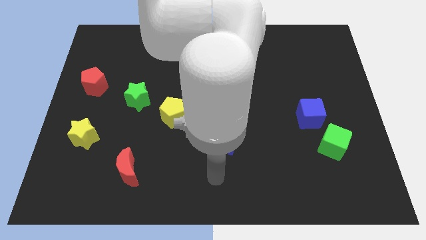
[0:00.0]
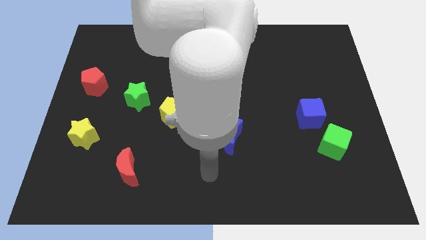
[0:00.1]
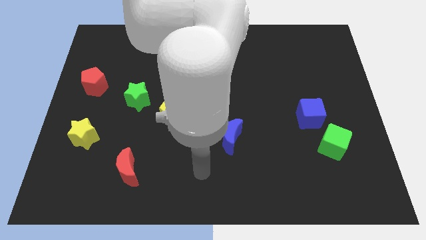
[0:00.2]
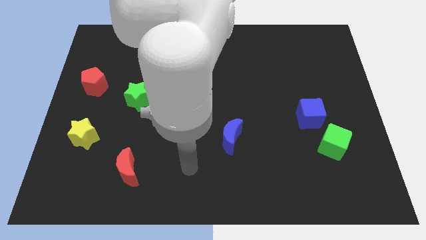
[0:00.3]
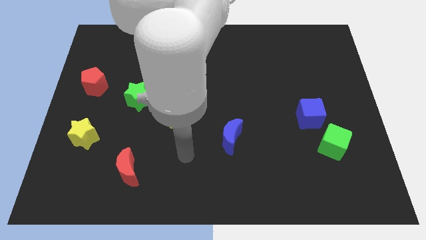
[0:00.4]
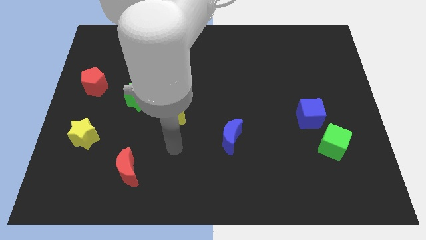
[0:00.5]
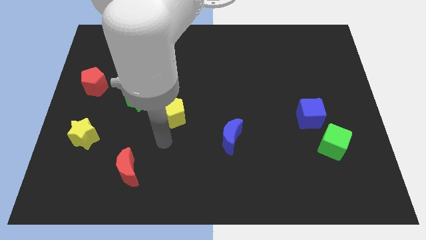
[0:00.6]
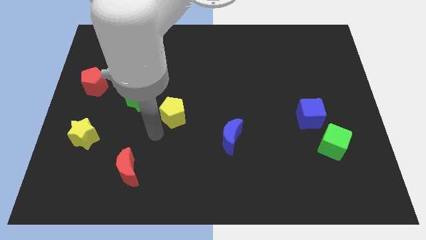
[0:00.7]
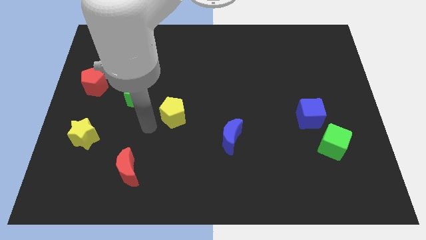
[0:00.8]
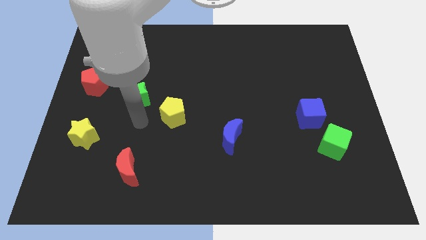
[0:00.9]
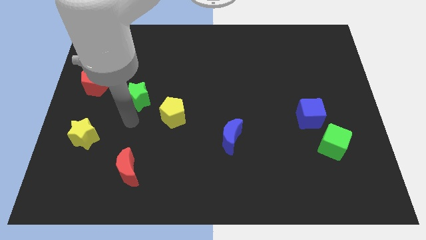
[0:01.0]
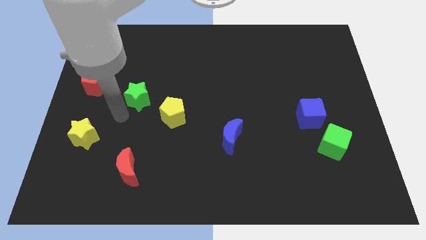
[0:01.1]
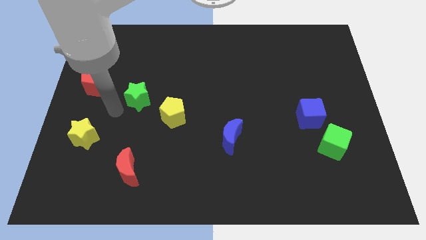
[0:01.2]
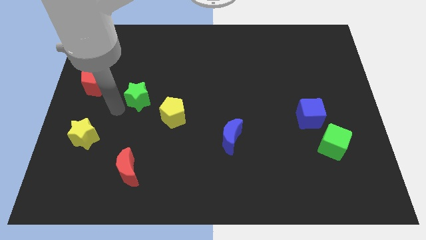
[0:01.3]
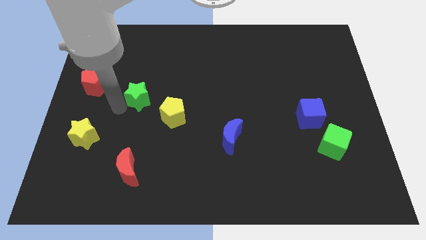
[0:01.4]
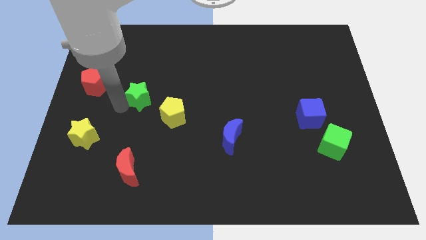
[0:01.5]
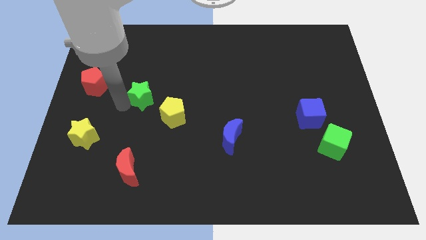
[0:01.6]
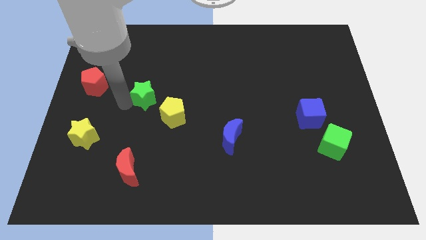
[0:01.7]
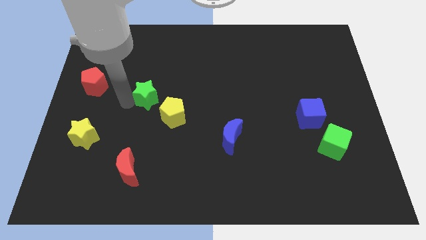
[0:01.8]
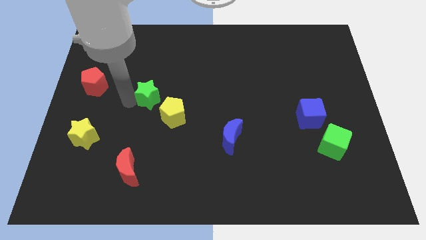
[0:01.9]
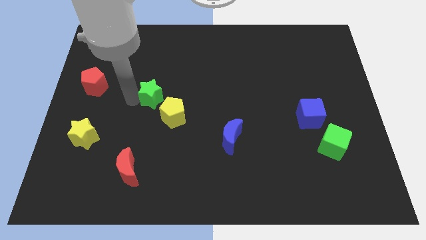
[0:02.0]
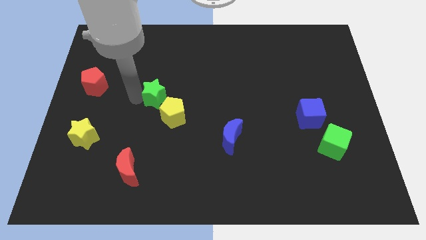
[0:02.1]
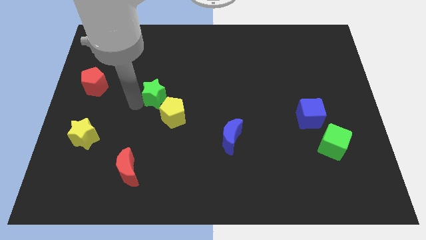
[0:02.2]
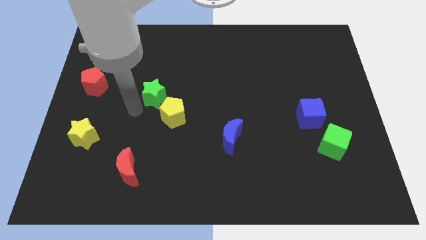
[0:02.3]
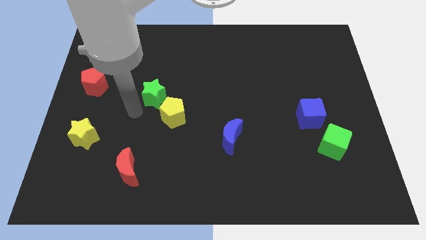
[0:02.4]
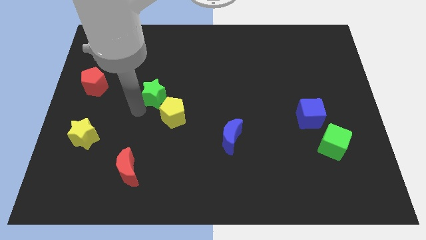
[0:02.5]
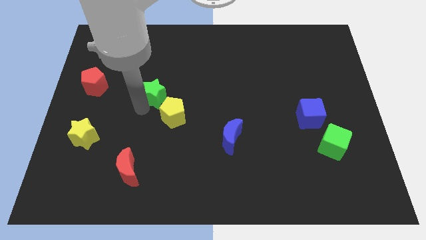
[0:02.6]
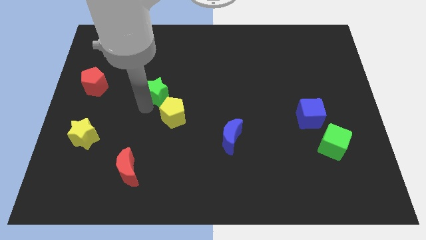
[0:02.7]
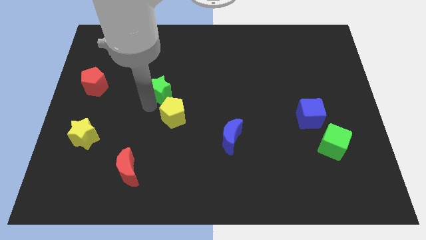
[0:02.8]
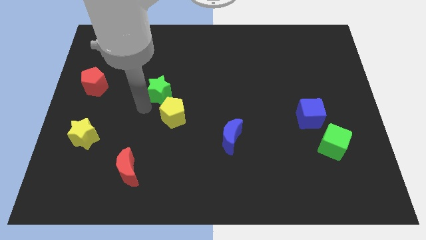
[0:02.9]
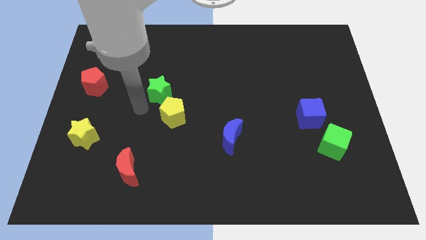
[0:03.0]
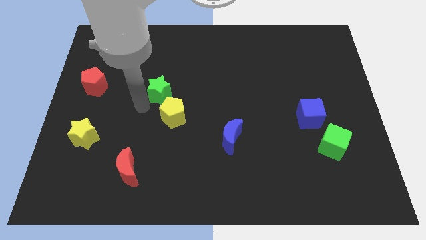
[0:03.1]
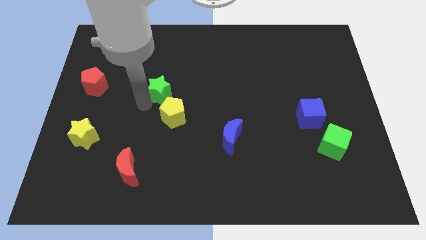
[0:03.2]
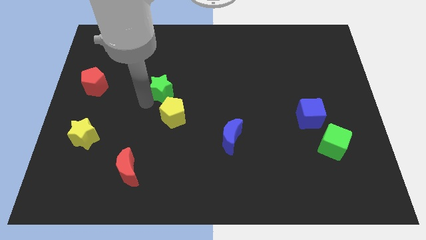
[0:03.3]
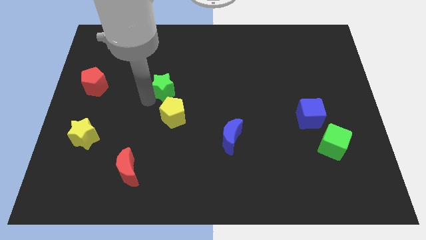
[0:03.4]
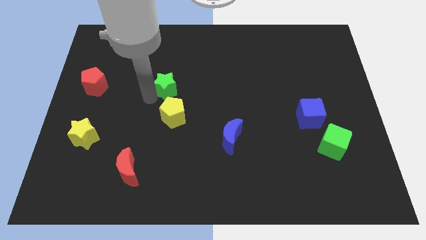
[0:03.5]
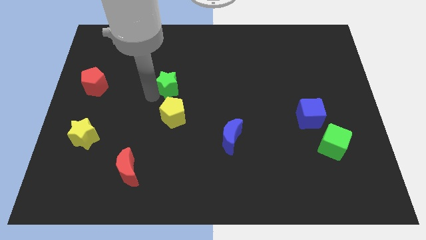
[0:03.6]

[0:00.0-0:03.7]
push the green star somewhat diagonally upwards and right

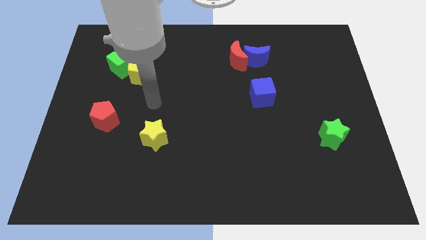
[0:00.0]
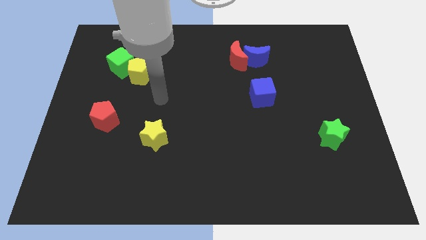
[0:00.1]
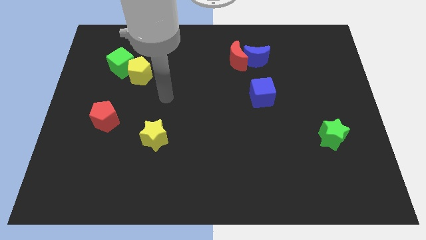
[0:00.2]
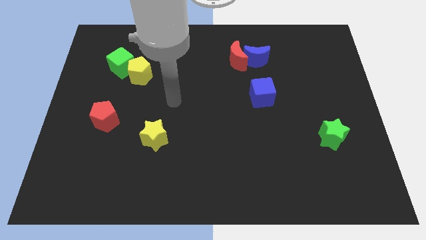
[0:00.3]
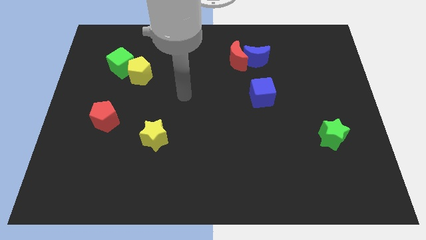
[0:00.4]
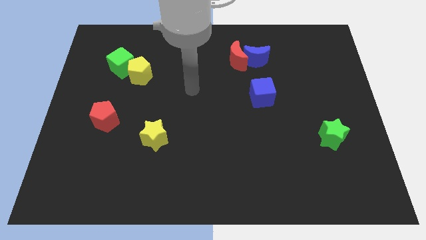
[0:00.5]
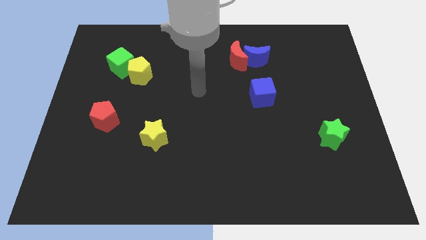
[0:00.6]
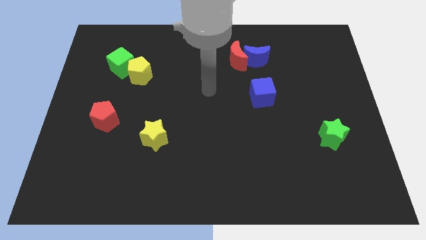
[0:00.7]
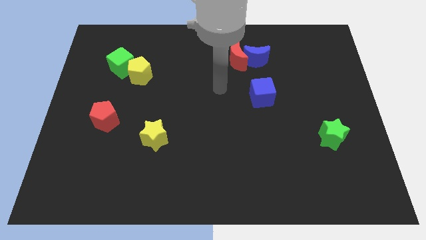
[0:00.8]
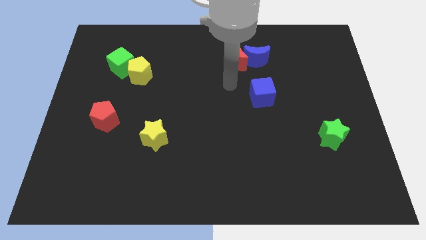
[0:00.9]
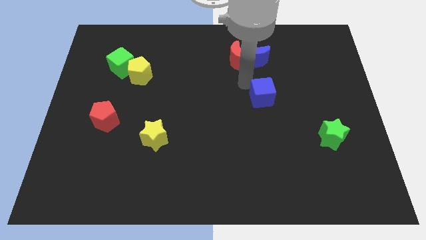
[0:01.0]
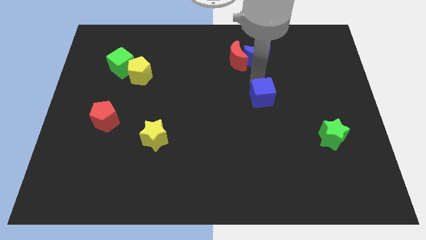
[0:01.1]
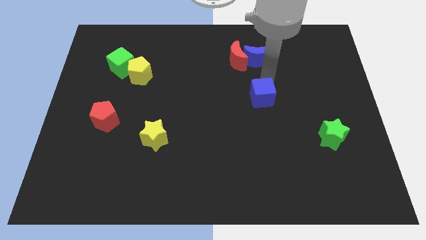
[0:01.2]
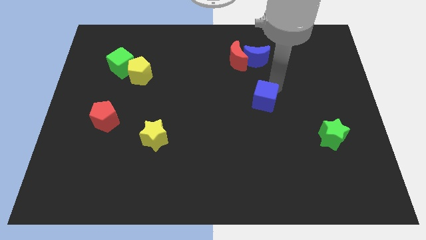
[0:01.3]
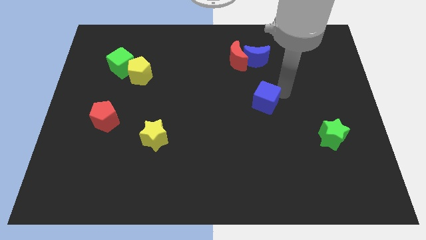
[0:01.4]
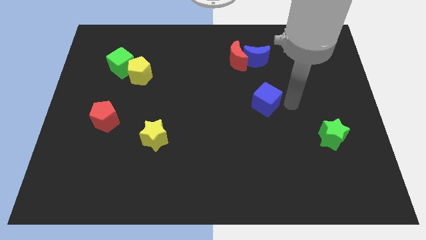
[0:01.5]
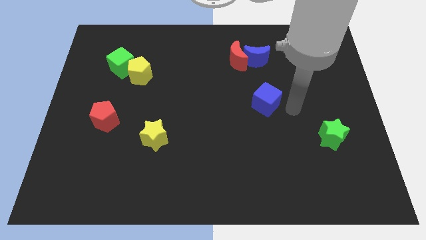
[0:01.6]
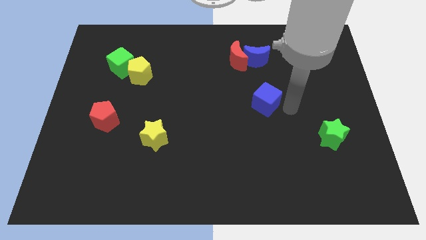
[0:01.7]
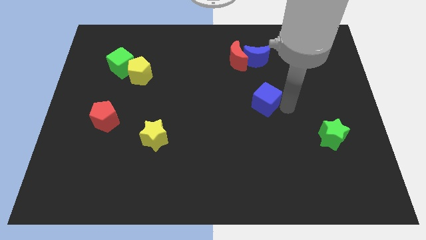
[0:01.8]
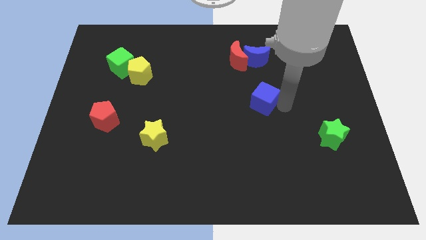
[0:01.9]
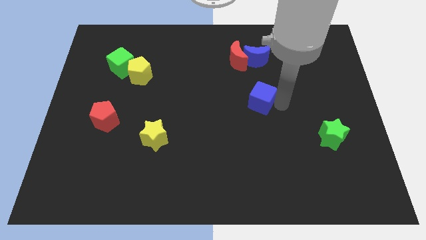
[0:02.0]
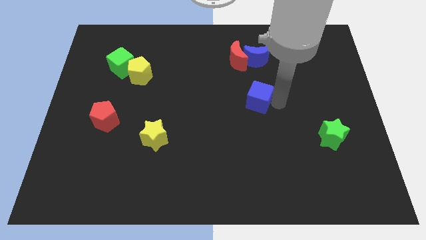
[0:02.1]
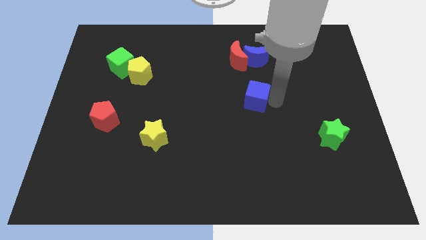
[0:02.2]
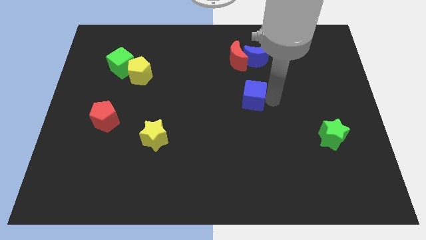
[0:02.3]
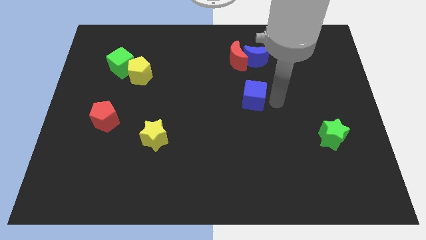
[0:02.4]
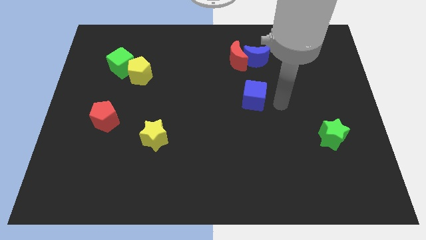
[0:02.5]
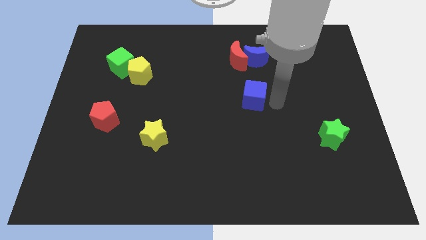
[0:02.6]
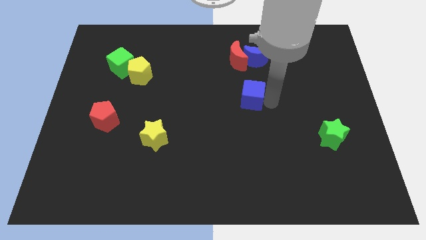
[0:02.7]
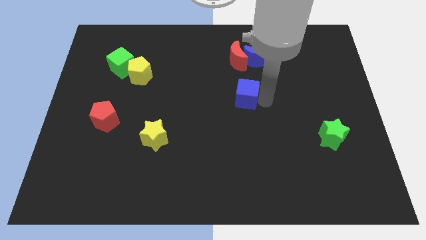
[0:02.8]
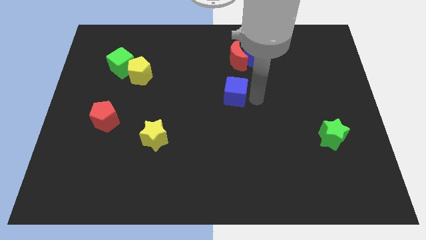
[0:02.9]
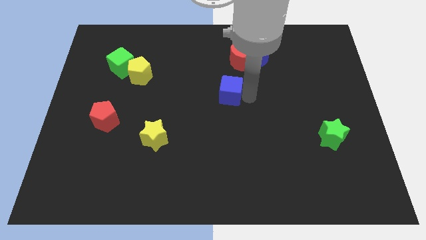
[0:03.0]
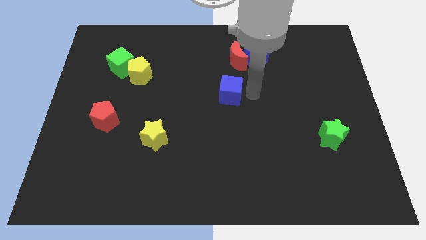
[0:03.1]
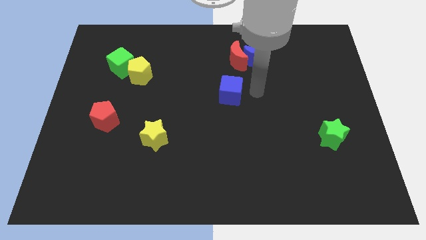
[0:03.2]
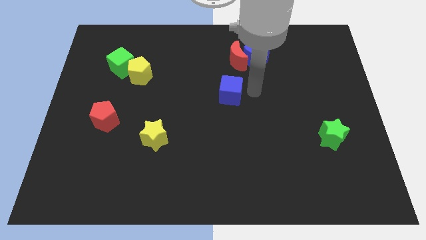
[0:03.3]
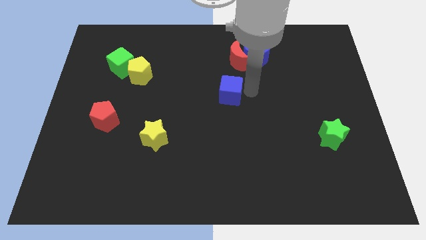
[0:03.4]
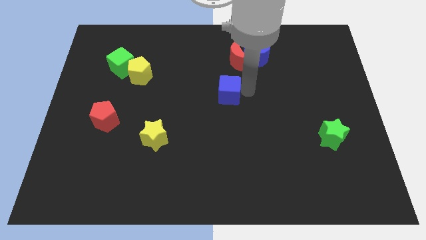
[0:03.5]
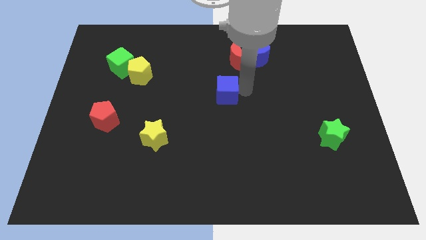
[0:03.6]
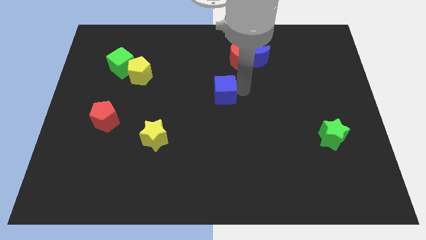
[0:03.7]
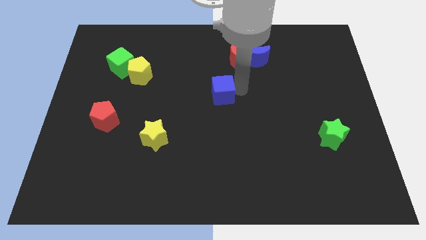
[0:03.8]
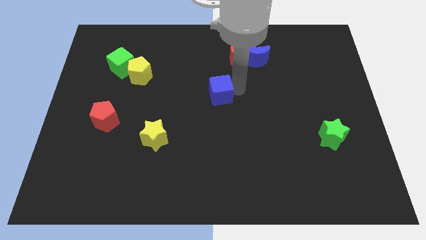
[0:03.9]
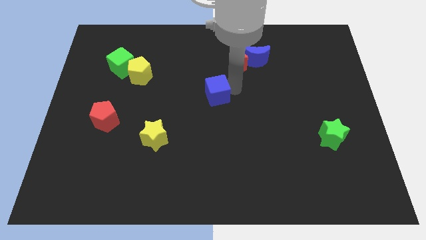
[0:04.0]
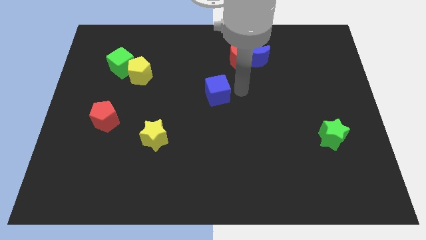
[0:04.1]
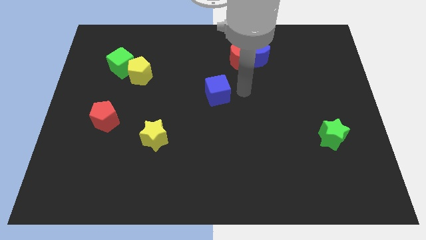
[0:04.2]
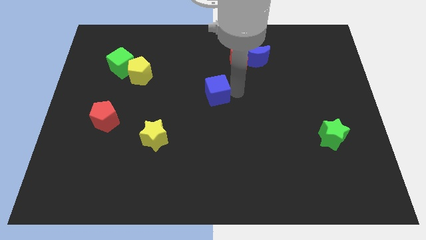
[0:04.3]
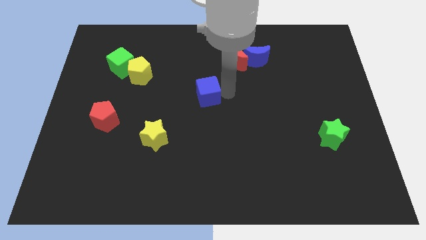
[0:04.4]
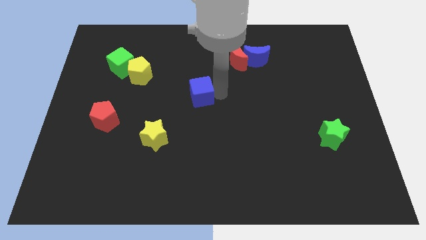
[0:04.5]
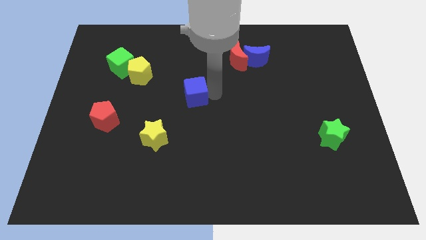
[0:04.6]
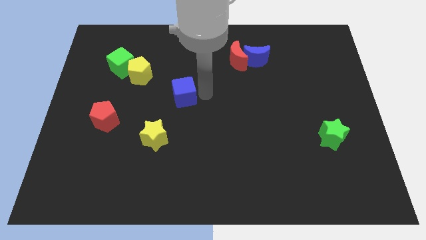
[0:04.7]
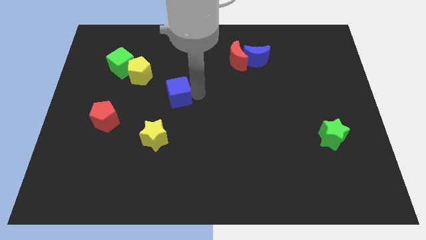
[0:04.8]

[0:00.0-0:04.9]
slide the blue cube left
